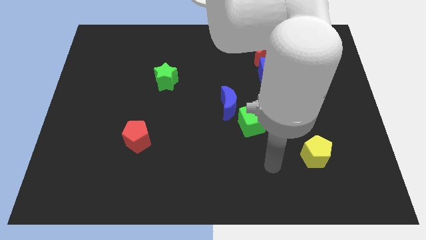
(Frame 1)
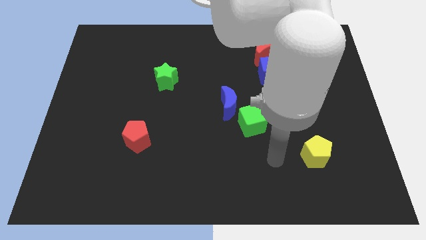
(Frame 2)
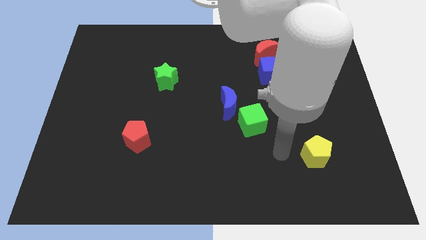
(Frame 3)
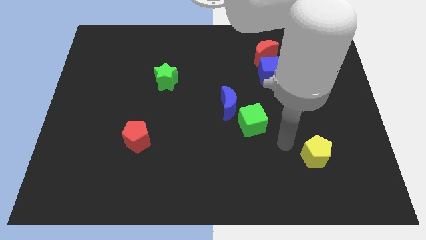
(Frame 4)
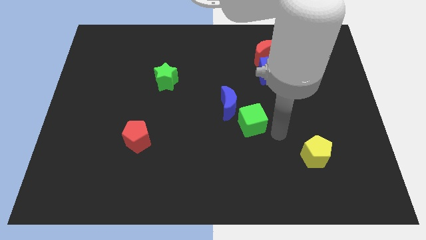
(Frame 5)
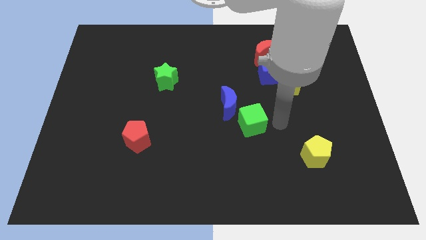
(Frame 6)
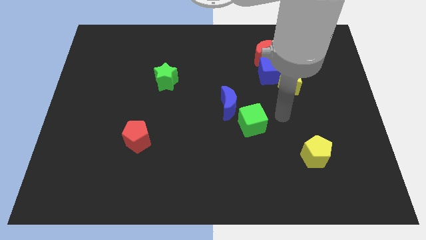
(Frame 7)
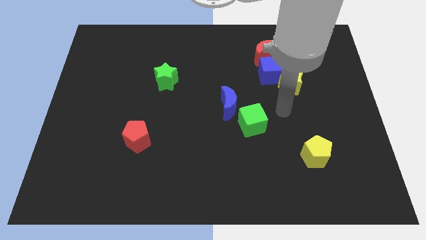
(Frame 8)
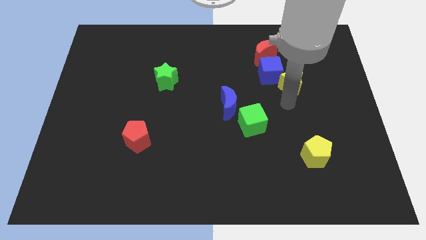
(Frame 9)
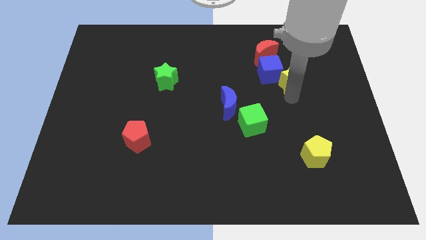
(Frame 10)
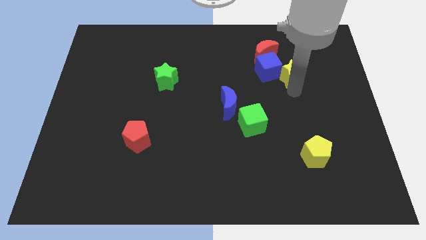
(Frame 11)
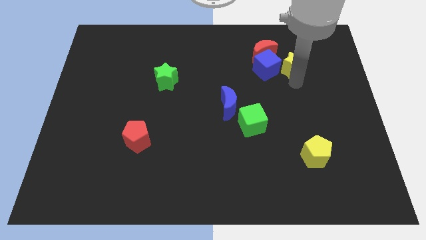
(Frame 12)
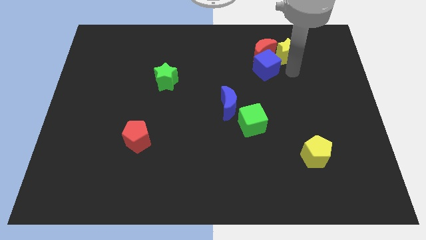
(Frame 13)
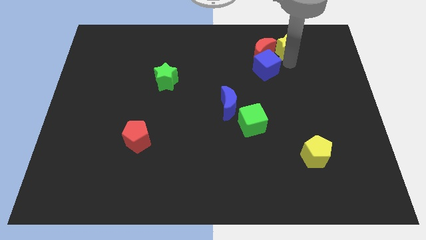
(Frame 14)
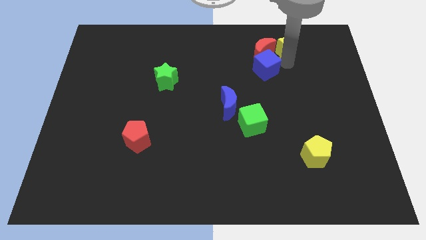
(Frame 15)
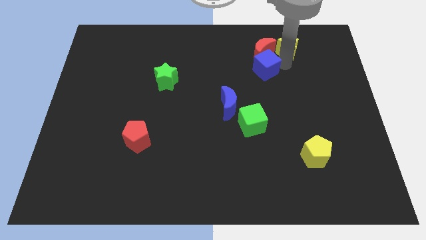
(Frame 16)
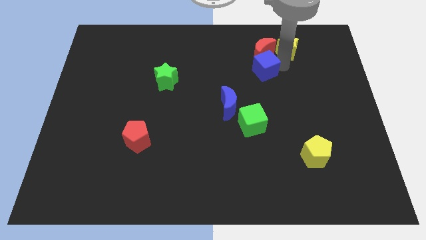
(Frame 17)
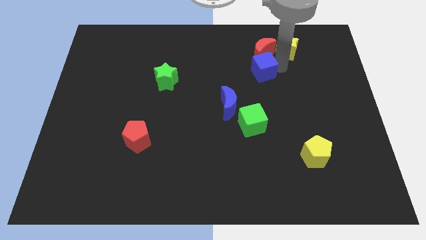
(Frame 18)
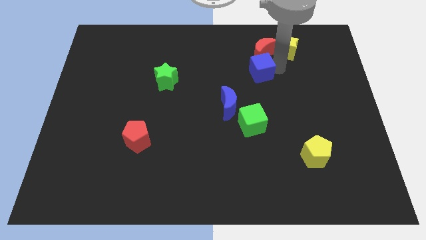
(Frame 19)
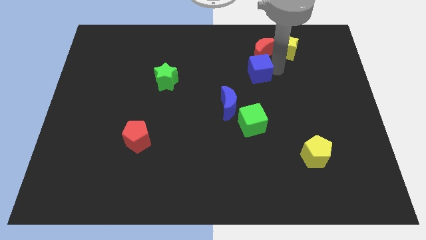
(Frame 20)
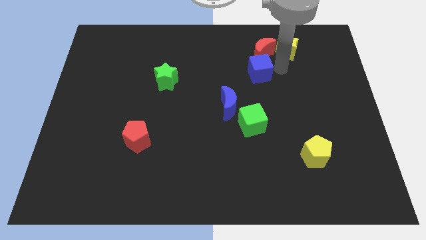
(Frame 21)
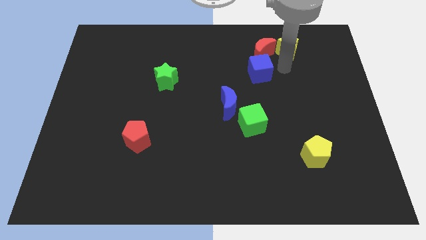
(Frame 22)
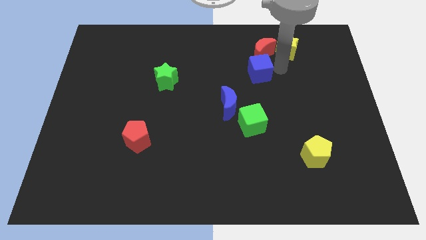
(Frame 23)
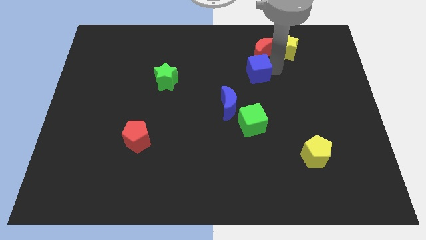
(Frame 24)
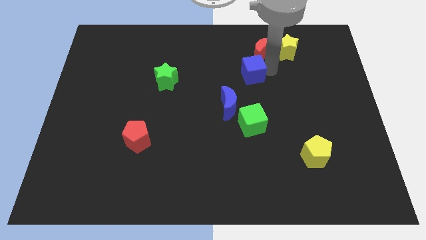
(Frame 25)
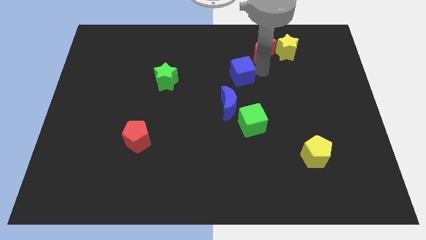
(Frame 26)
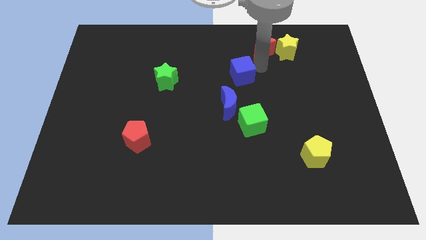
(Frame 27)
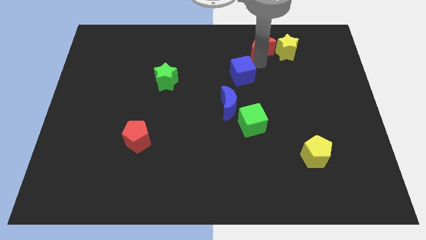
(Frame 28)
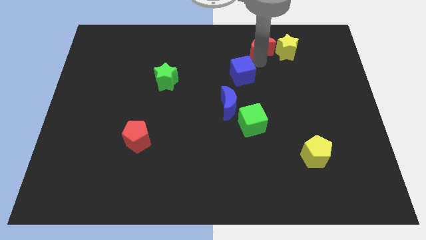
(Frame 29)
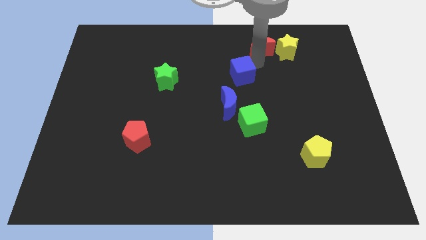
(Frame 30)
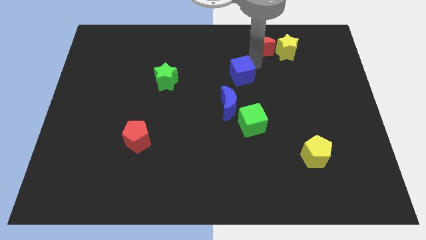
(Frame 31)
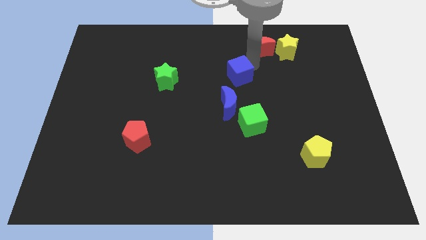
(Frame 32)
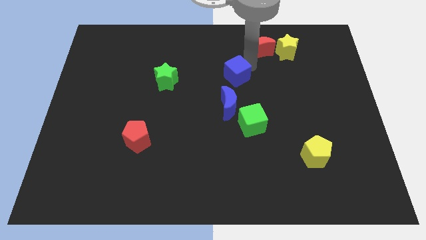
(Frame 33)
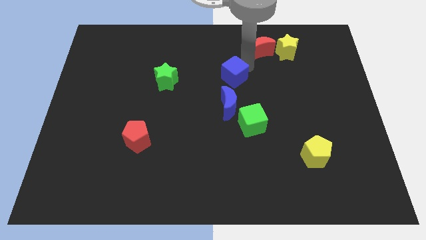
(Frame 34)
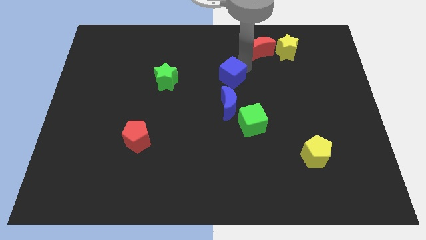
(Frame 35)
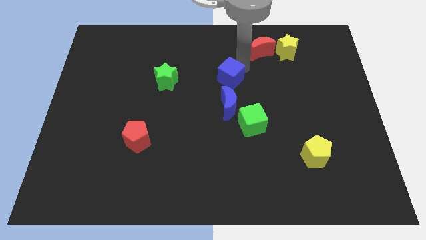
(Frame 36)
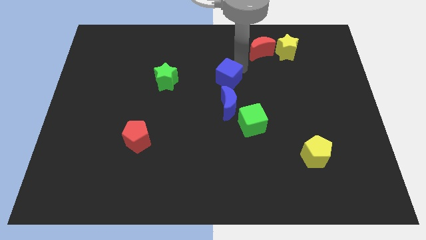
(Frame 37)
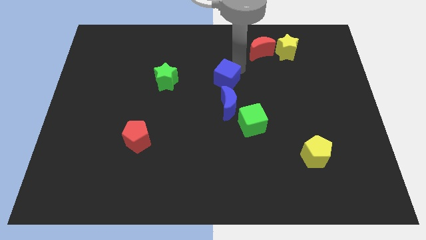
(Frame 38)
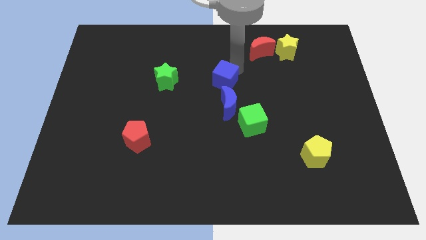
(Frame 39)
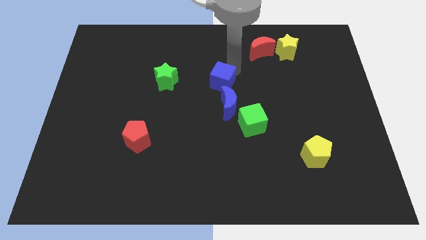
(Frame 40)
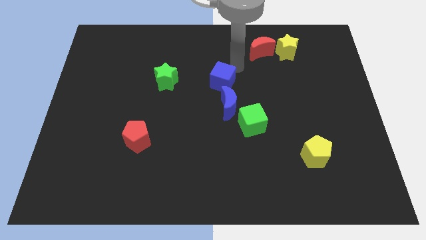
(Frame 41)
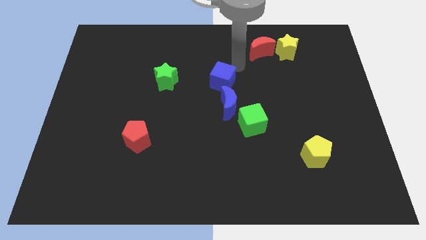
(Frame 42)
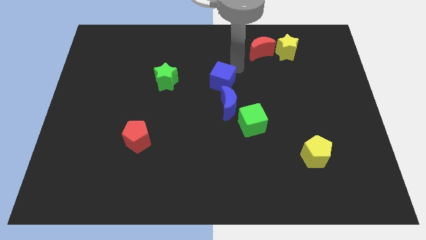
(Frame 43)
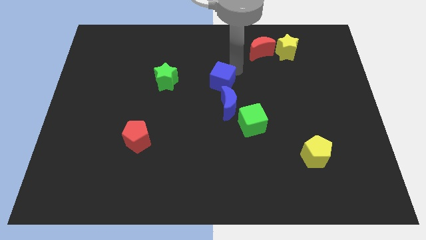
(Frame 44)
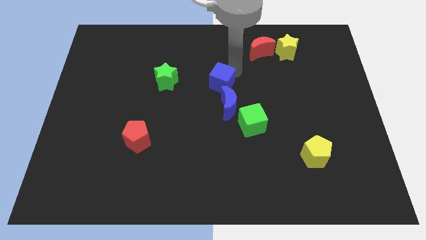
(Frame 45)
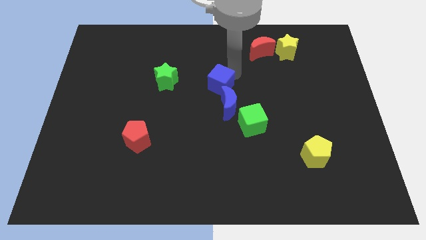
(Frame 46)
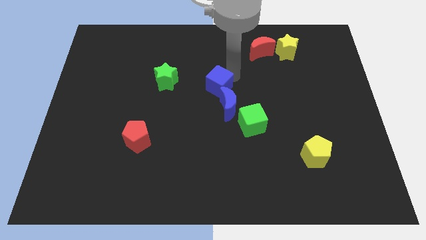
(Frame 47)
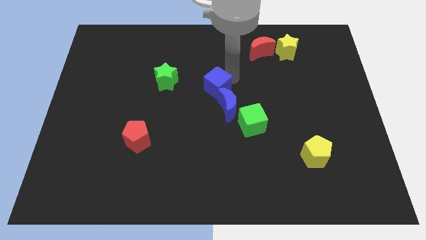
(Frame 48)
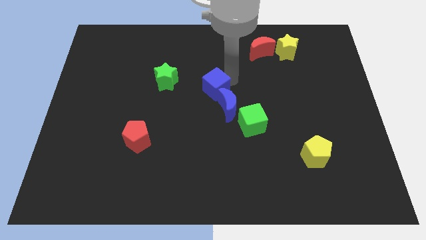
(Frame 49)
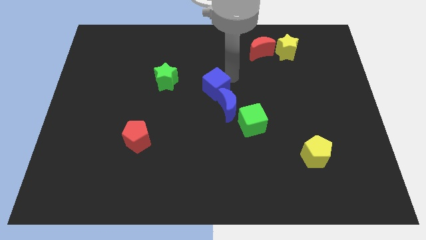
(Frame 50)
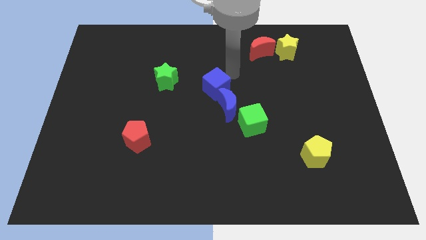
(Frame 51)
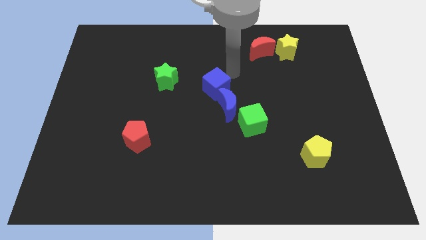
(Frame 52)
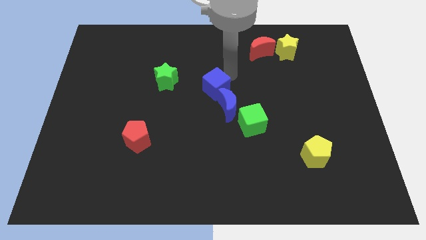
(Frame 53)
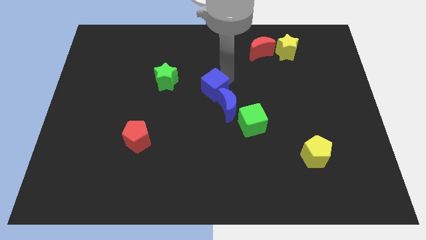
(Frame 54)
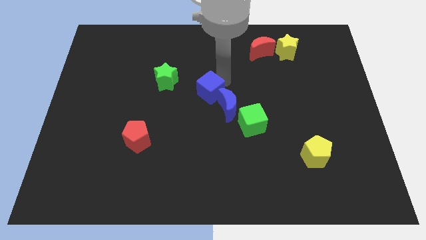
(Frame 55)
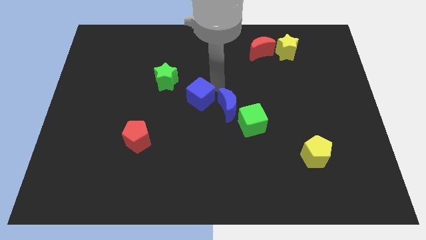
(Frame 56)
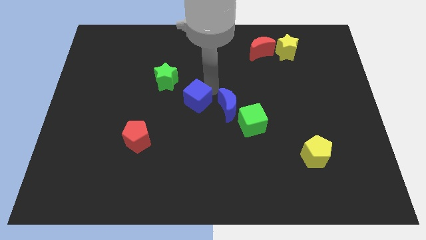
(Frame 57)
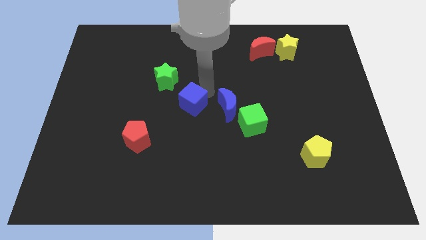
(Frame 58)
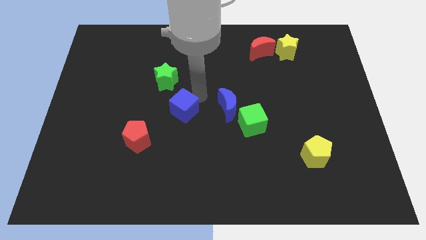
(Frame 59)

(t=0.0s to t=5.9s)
move the blue cube downwards and then left

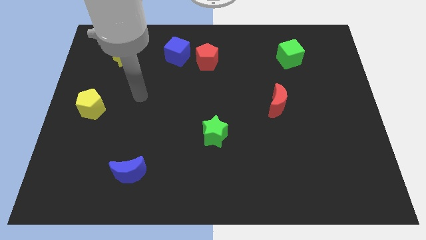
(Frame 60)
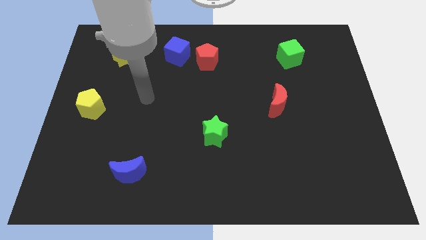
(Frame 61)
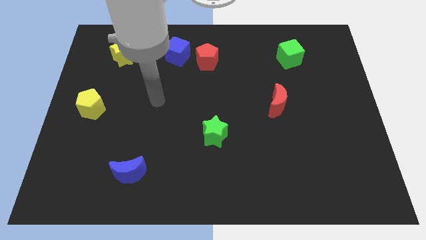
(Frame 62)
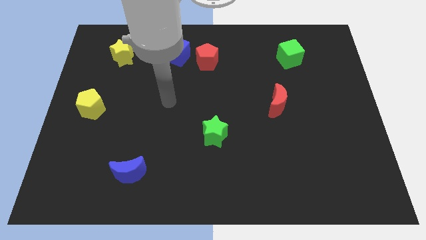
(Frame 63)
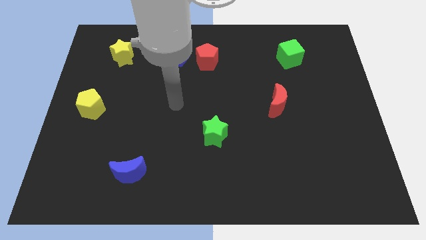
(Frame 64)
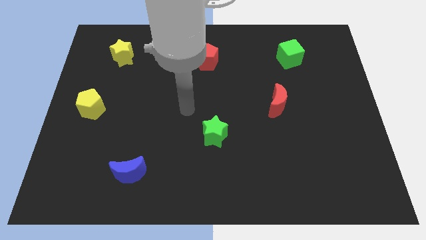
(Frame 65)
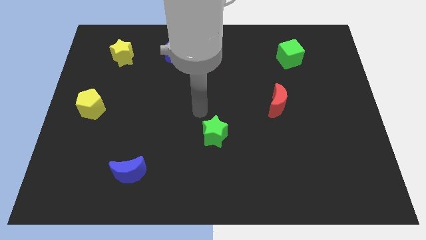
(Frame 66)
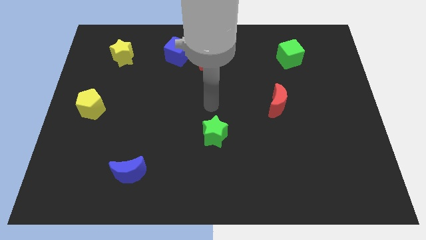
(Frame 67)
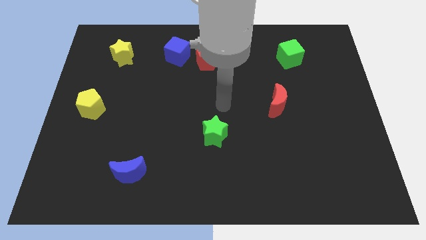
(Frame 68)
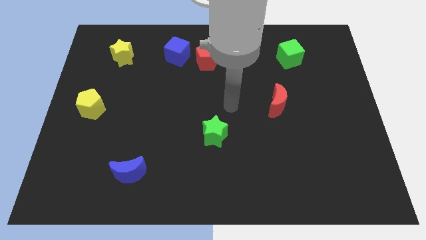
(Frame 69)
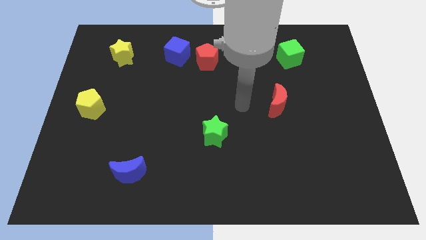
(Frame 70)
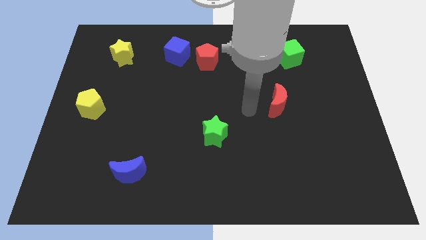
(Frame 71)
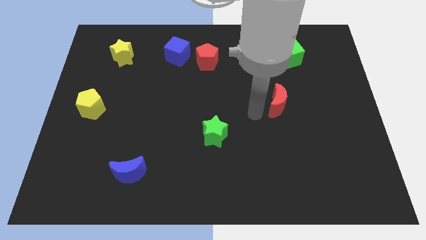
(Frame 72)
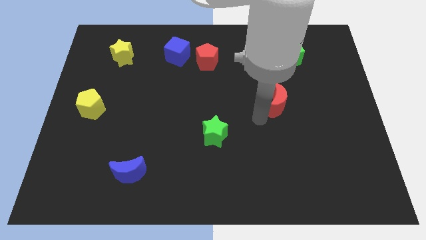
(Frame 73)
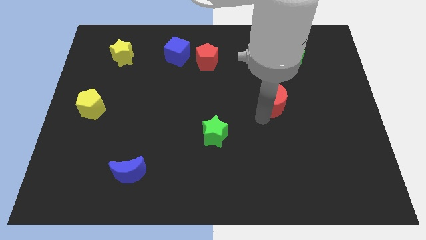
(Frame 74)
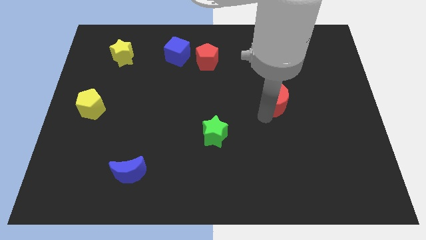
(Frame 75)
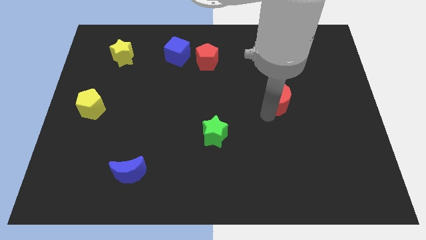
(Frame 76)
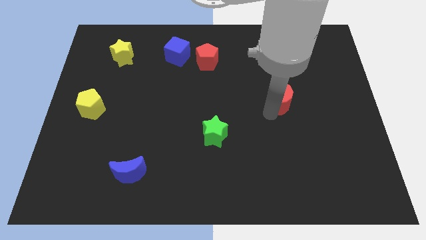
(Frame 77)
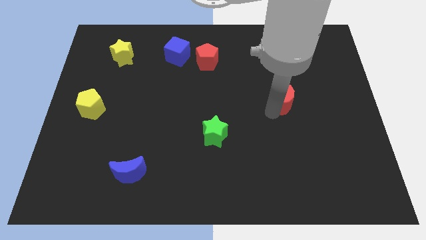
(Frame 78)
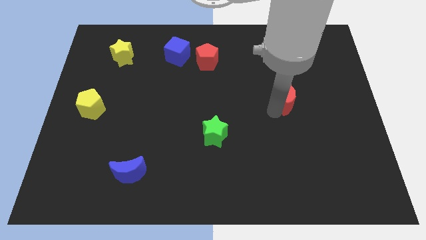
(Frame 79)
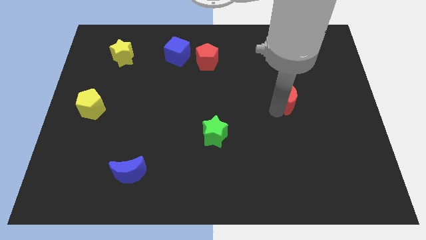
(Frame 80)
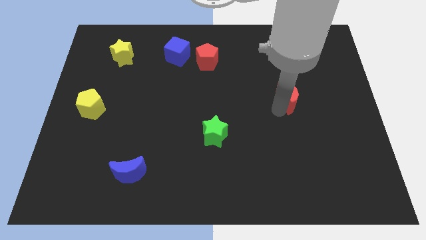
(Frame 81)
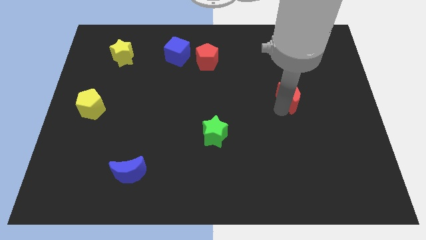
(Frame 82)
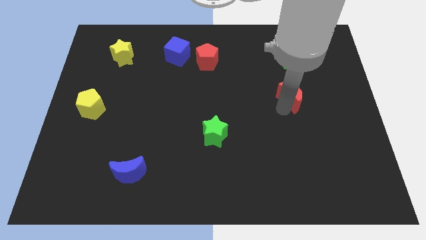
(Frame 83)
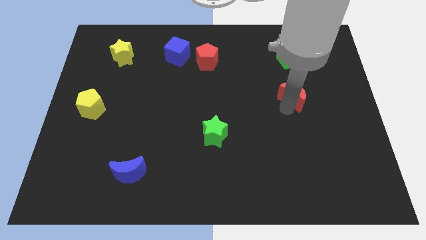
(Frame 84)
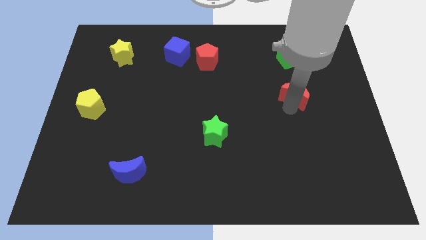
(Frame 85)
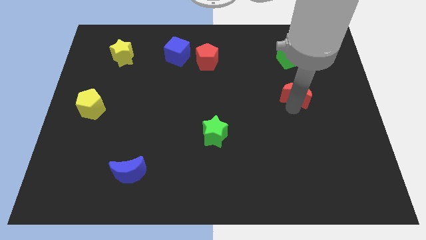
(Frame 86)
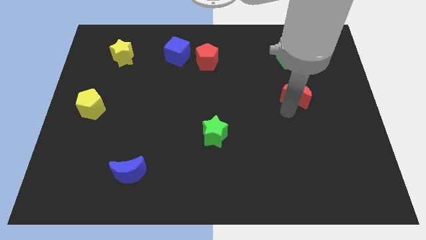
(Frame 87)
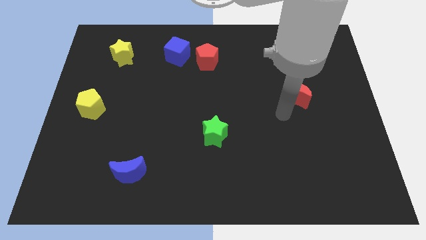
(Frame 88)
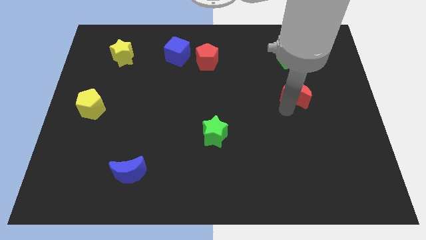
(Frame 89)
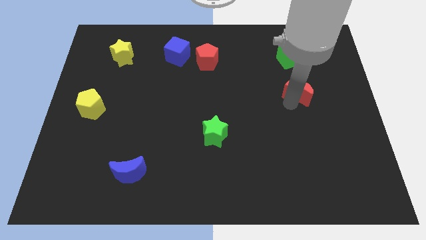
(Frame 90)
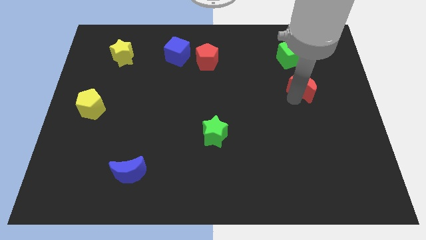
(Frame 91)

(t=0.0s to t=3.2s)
slide the red moon diagonally up and to the right slightly
